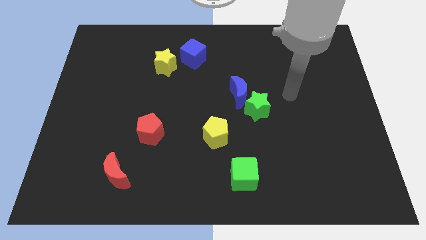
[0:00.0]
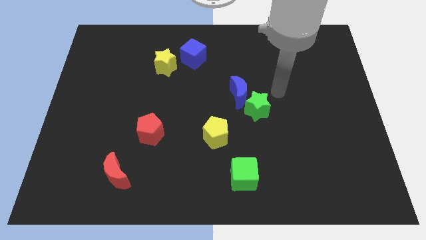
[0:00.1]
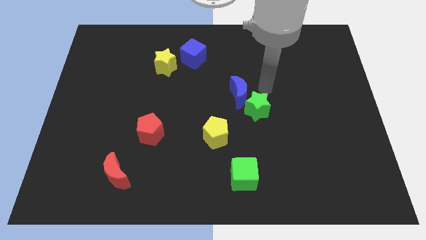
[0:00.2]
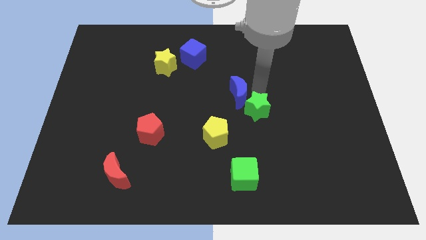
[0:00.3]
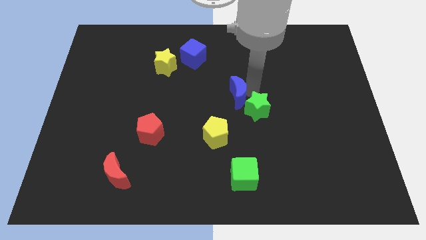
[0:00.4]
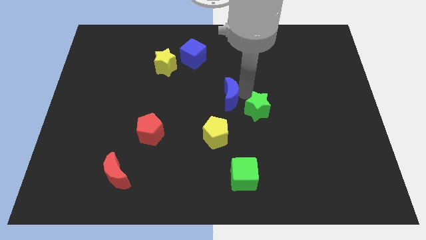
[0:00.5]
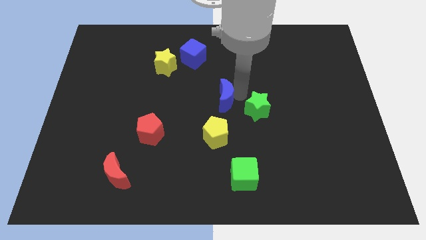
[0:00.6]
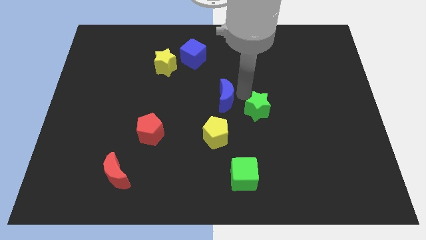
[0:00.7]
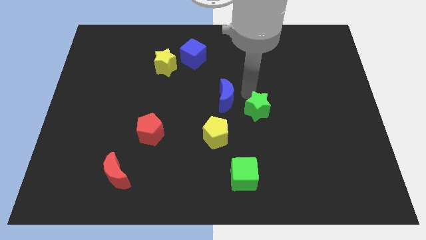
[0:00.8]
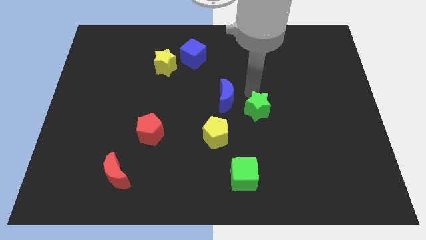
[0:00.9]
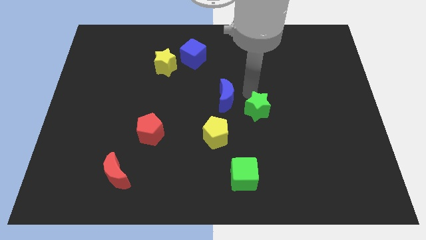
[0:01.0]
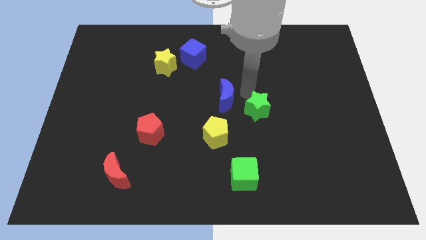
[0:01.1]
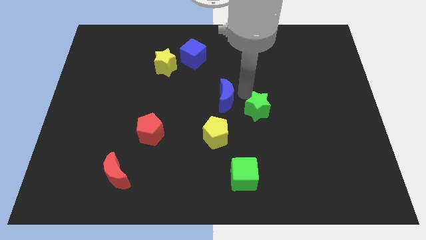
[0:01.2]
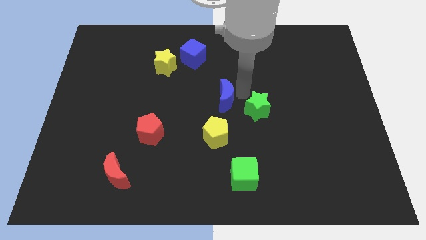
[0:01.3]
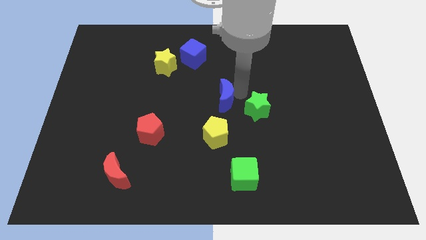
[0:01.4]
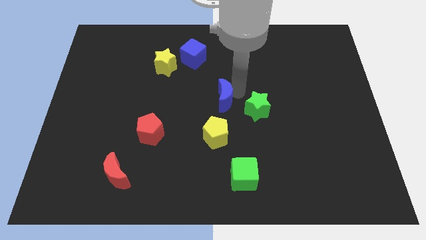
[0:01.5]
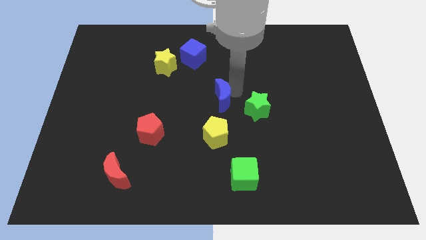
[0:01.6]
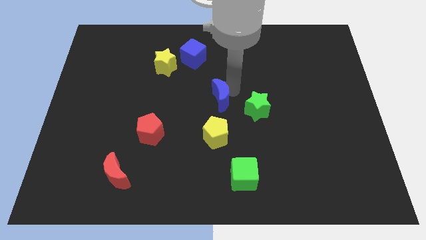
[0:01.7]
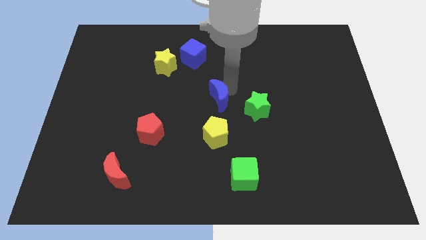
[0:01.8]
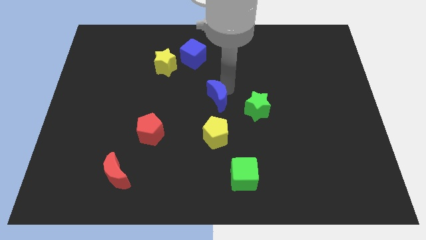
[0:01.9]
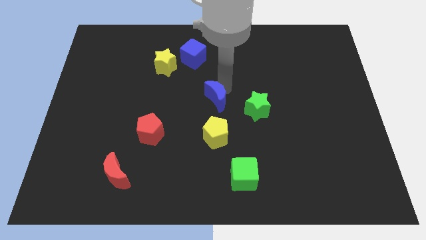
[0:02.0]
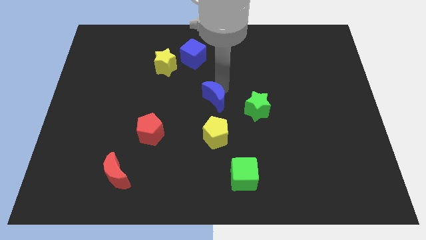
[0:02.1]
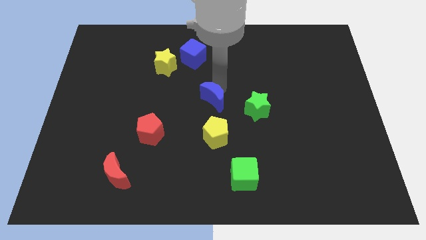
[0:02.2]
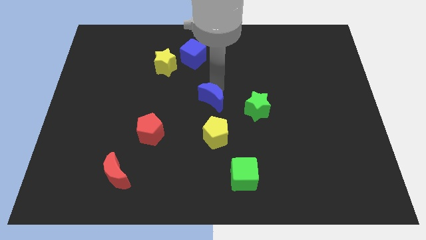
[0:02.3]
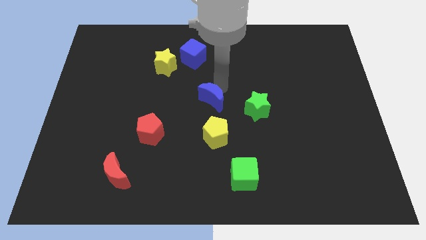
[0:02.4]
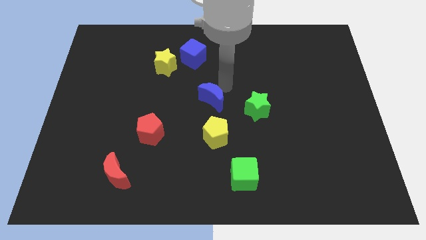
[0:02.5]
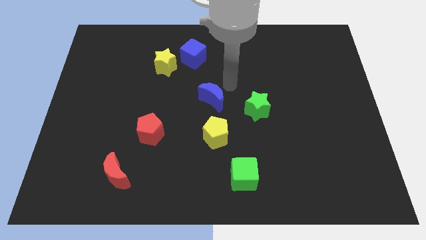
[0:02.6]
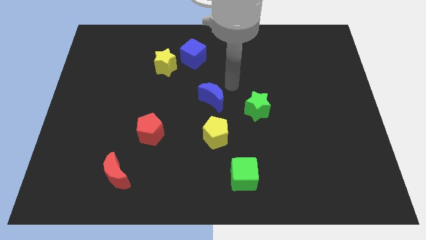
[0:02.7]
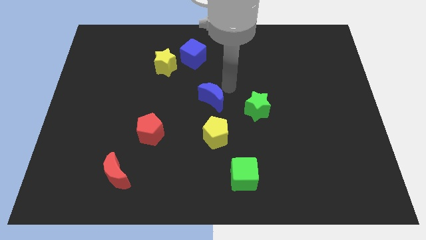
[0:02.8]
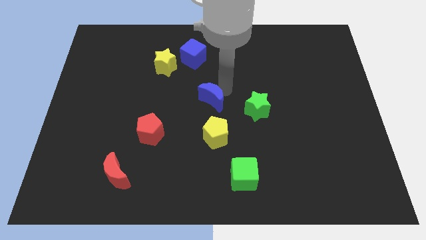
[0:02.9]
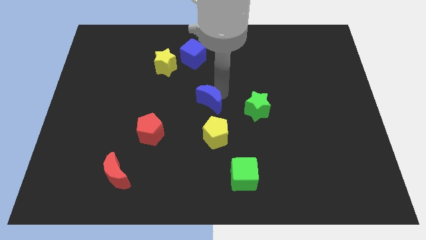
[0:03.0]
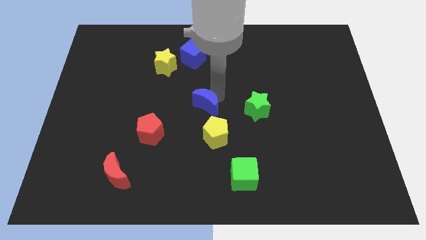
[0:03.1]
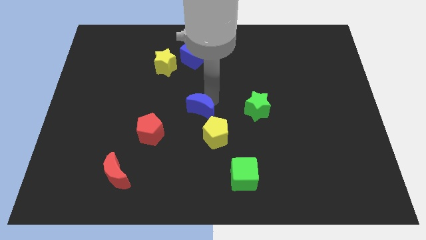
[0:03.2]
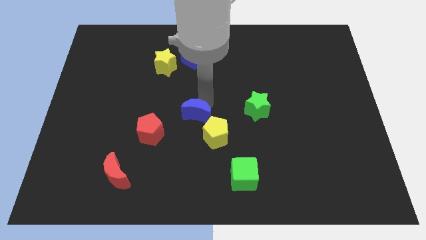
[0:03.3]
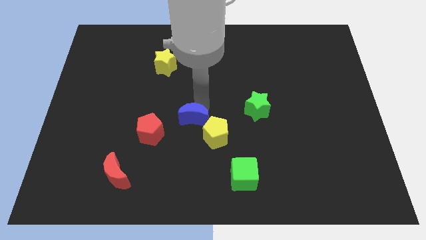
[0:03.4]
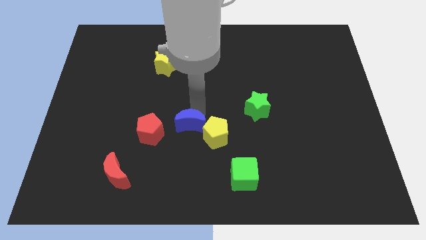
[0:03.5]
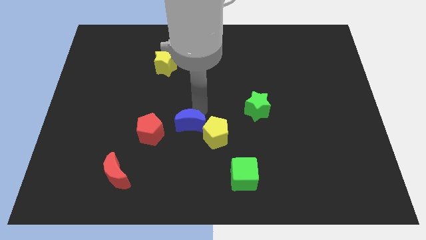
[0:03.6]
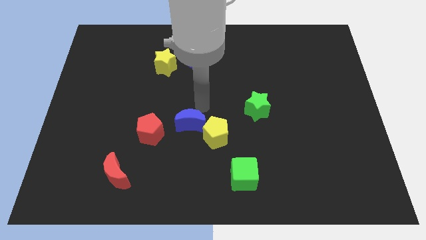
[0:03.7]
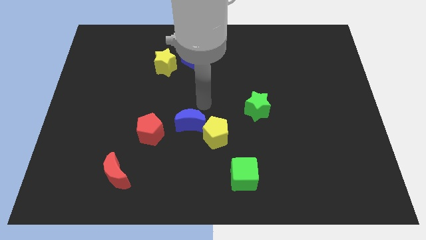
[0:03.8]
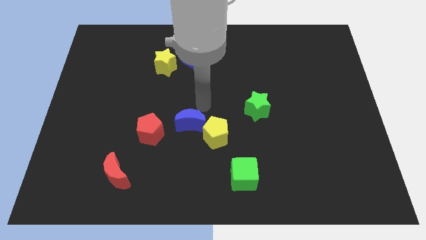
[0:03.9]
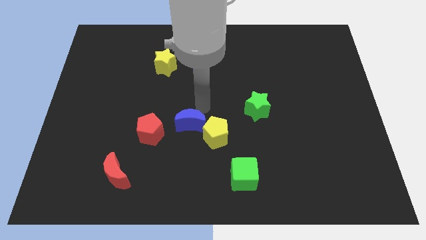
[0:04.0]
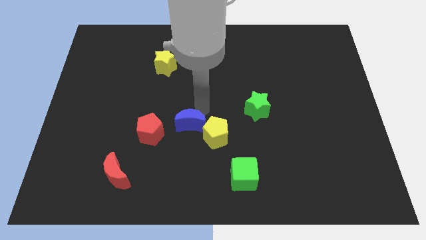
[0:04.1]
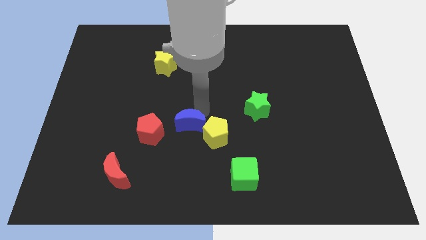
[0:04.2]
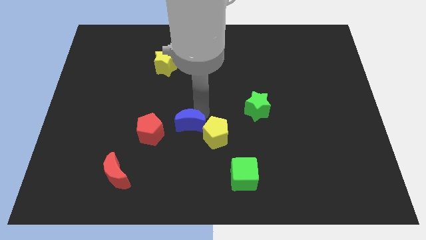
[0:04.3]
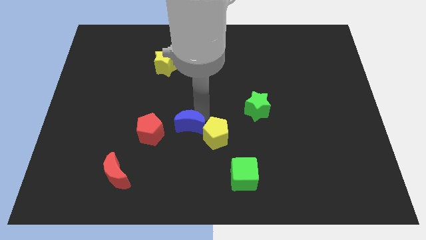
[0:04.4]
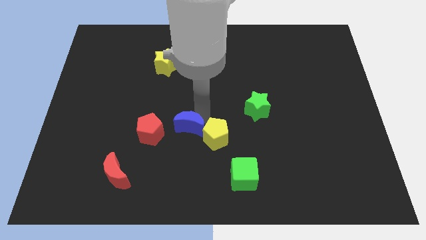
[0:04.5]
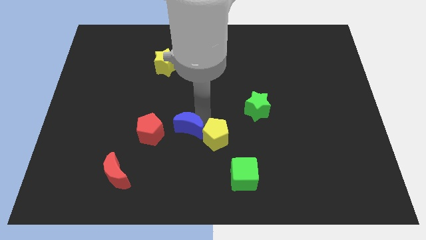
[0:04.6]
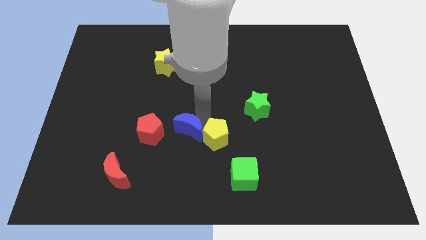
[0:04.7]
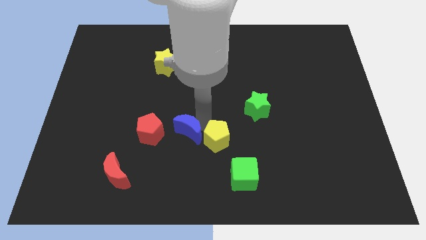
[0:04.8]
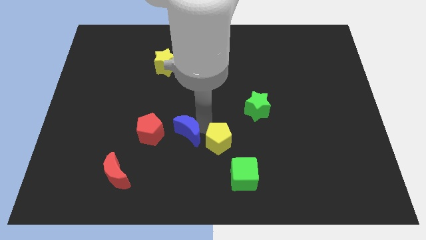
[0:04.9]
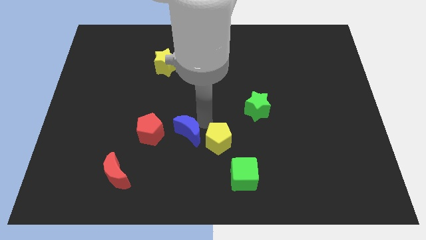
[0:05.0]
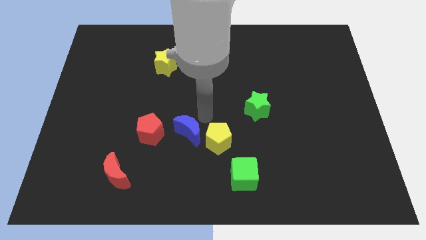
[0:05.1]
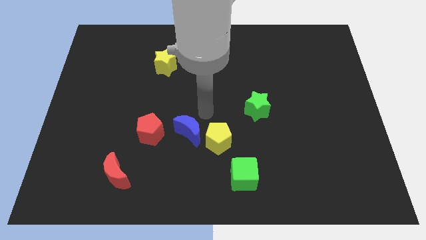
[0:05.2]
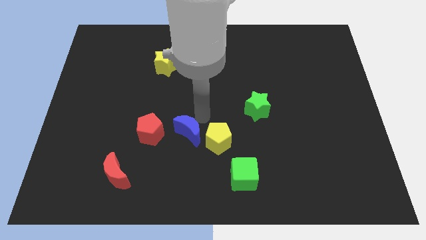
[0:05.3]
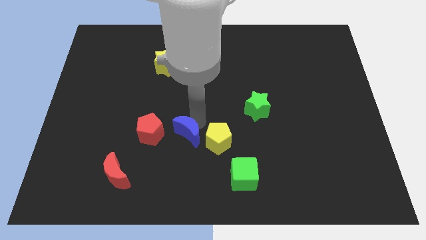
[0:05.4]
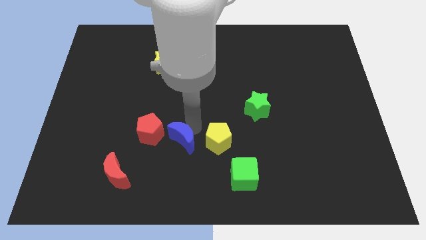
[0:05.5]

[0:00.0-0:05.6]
slide the blue moon to the bottom right of the red pentagon
